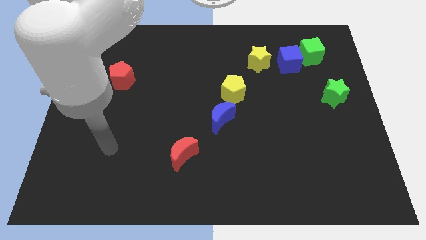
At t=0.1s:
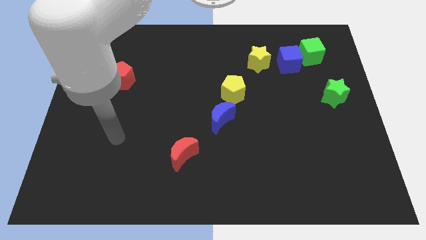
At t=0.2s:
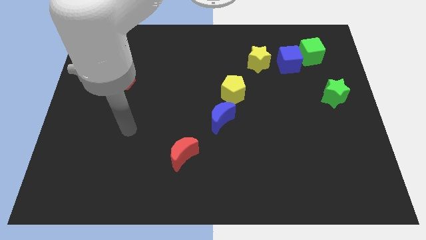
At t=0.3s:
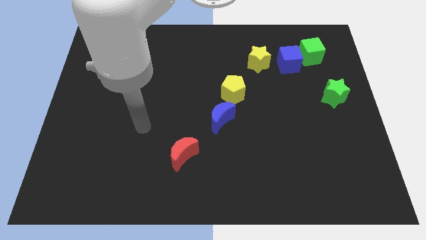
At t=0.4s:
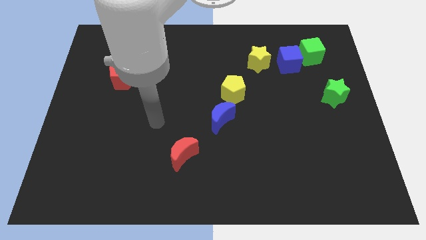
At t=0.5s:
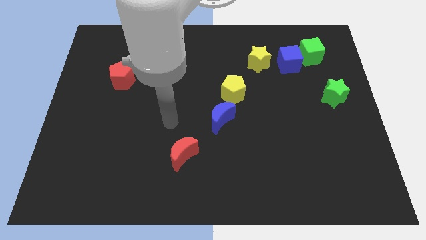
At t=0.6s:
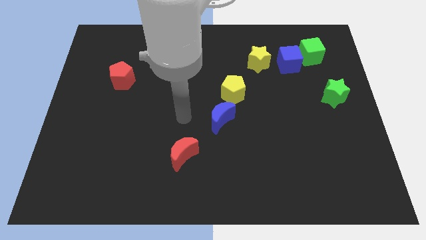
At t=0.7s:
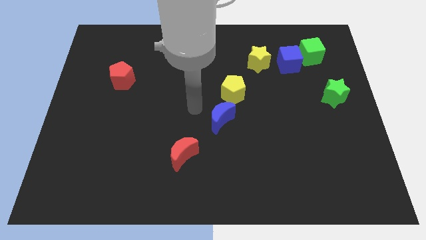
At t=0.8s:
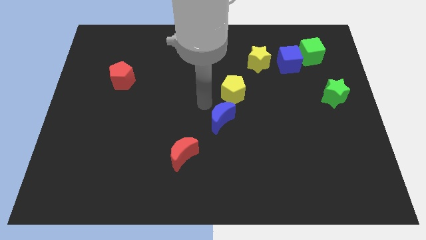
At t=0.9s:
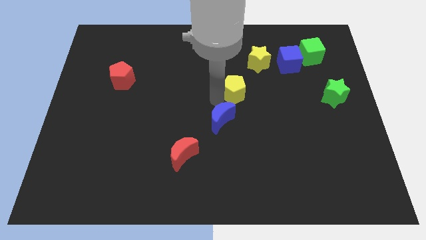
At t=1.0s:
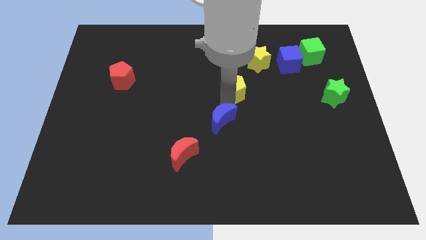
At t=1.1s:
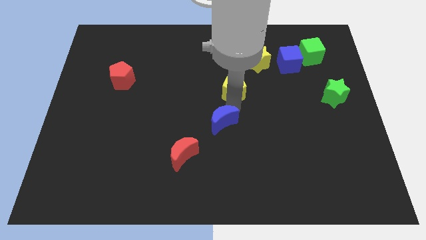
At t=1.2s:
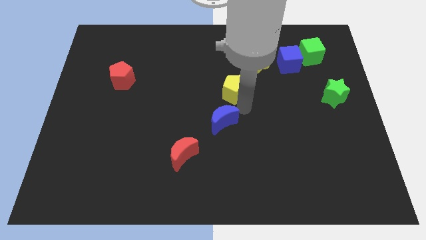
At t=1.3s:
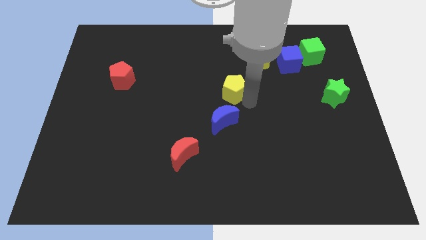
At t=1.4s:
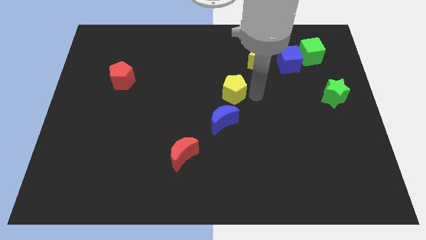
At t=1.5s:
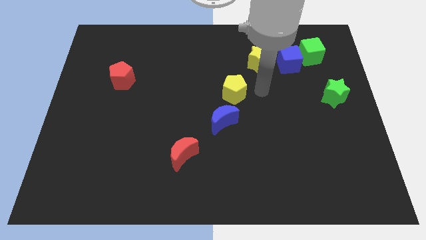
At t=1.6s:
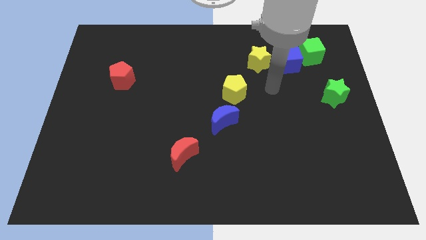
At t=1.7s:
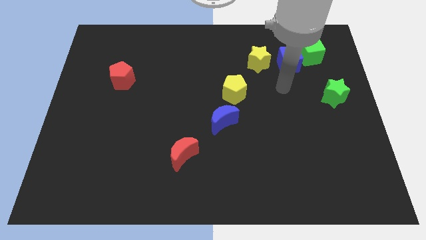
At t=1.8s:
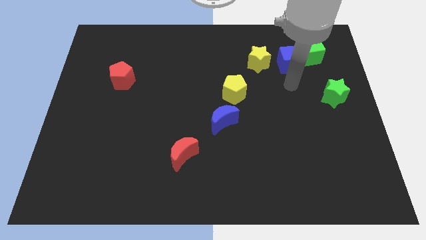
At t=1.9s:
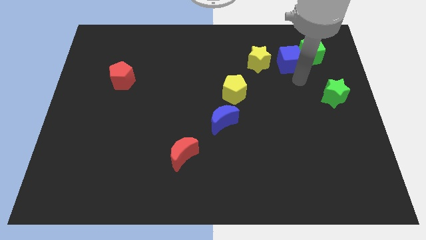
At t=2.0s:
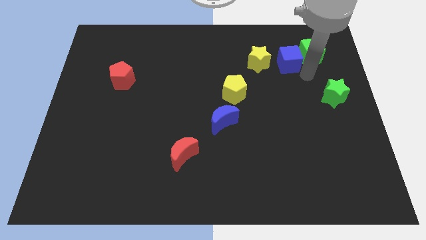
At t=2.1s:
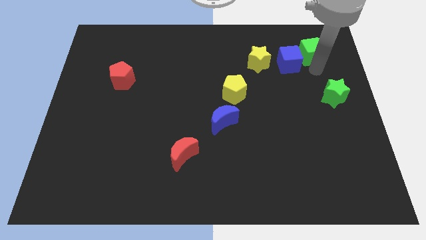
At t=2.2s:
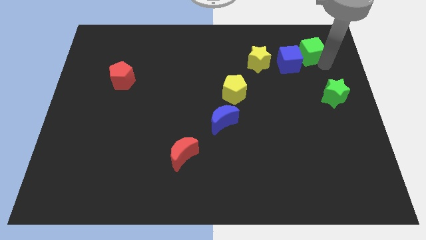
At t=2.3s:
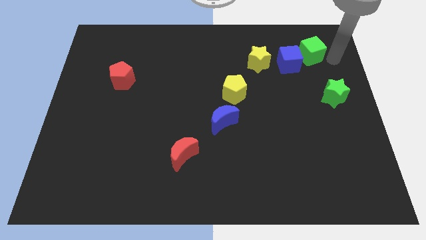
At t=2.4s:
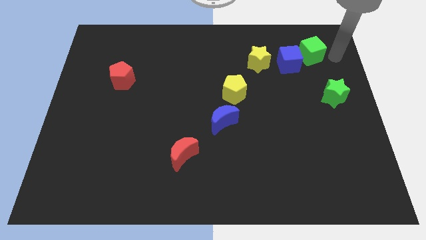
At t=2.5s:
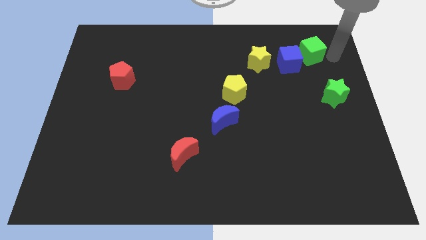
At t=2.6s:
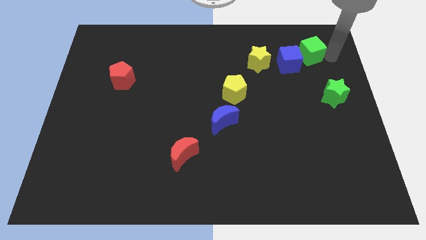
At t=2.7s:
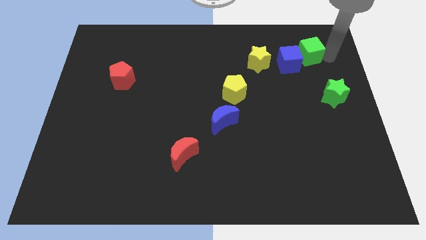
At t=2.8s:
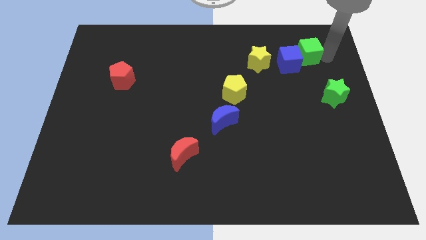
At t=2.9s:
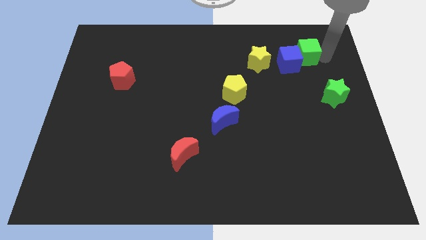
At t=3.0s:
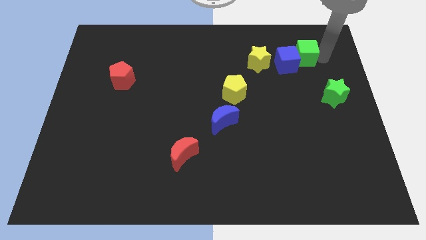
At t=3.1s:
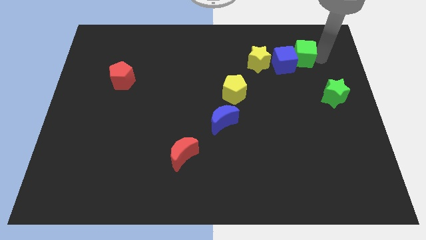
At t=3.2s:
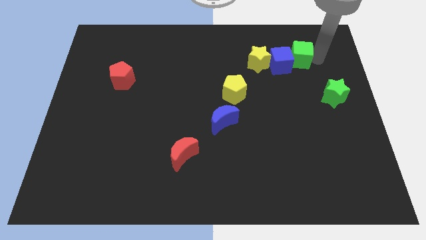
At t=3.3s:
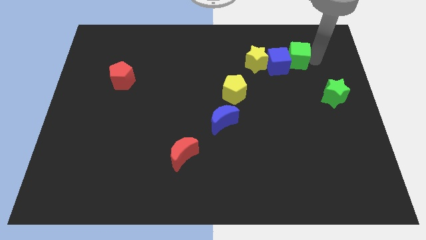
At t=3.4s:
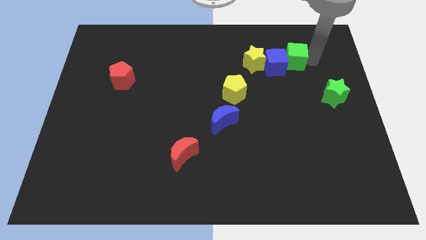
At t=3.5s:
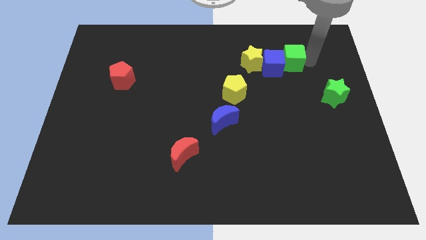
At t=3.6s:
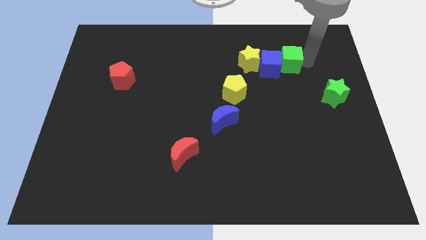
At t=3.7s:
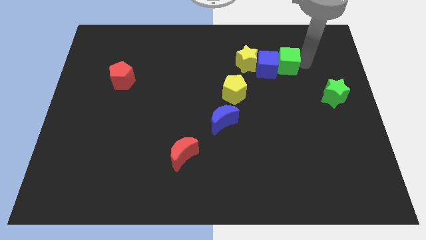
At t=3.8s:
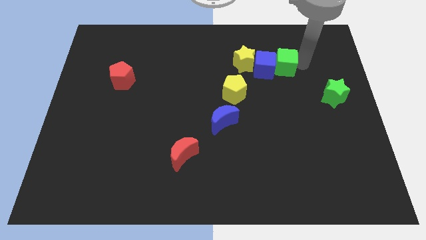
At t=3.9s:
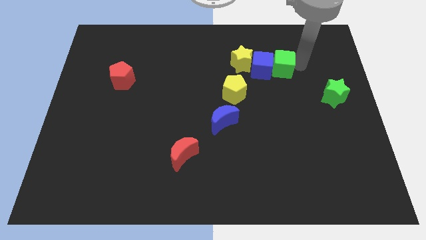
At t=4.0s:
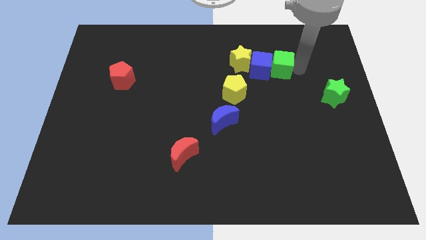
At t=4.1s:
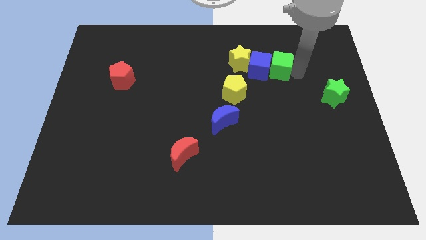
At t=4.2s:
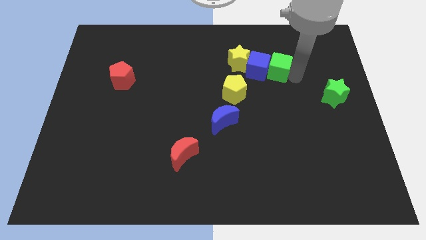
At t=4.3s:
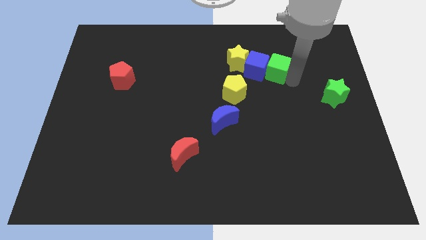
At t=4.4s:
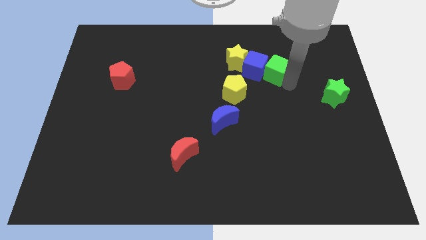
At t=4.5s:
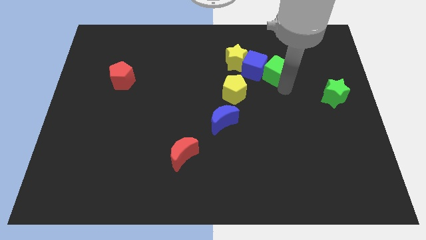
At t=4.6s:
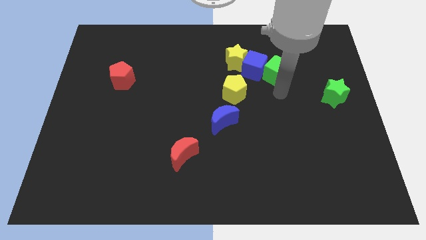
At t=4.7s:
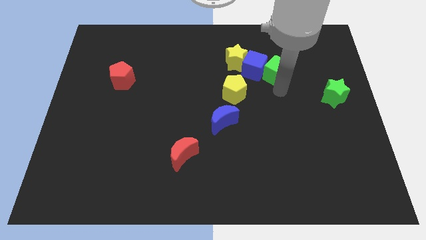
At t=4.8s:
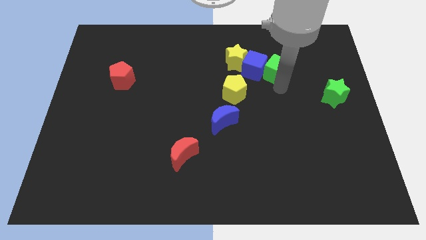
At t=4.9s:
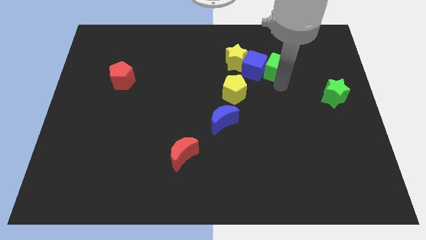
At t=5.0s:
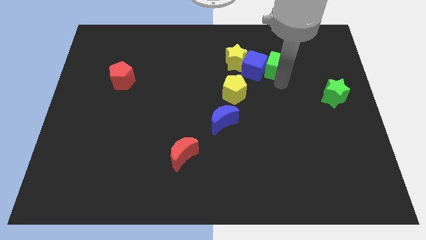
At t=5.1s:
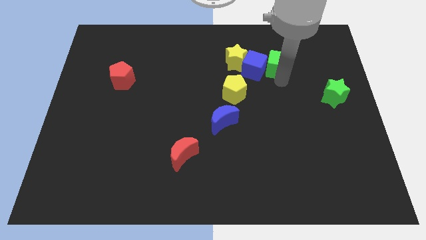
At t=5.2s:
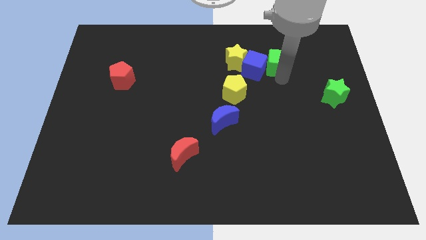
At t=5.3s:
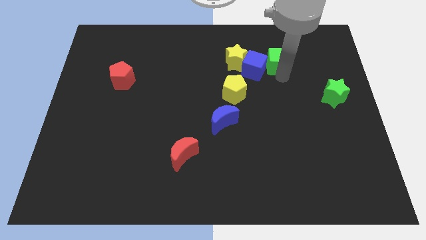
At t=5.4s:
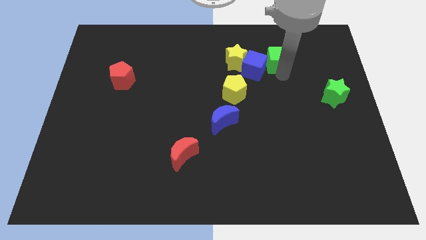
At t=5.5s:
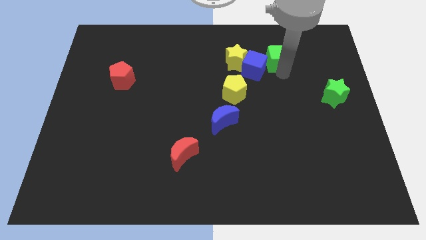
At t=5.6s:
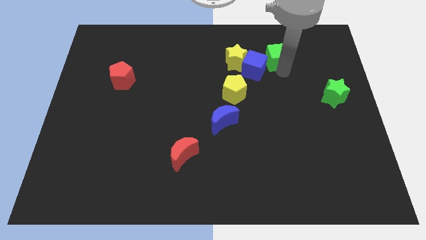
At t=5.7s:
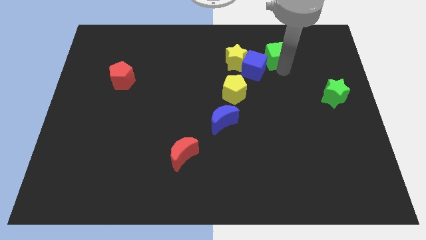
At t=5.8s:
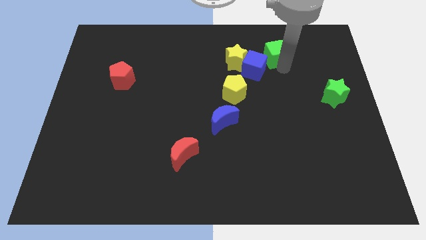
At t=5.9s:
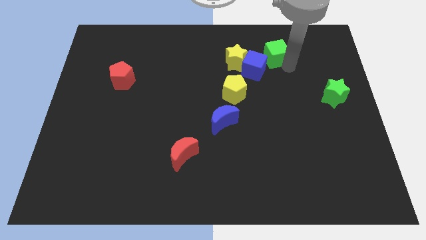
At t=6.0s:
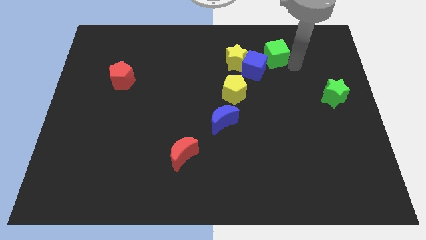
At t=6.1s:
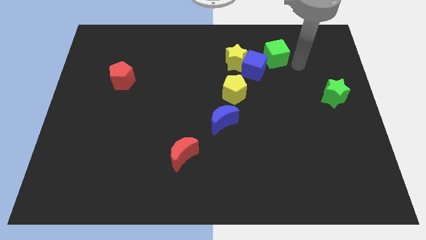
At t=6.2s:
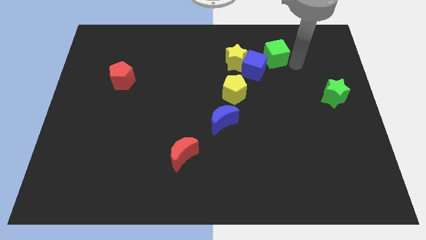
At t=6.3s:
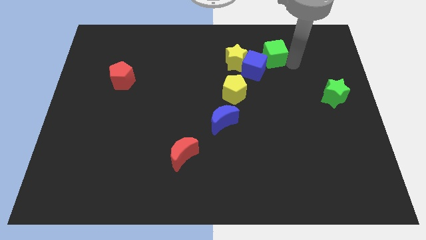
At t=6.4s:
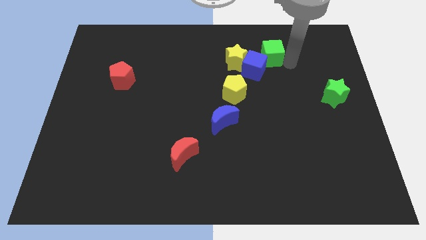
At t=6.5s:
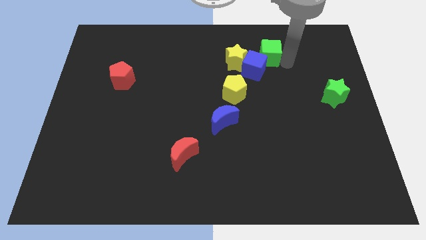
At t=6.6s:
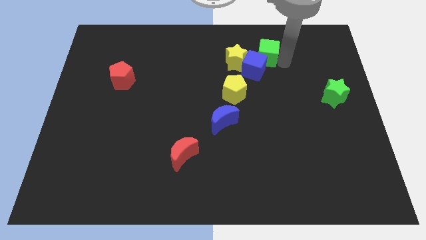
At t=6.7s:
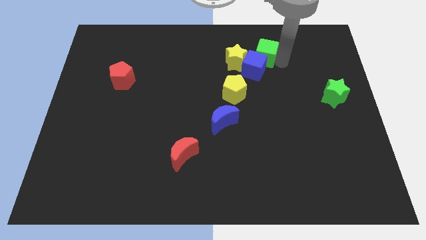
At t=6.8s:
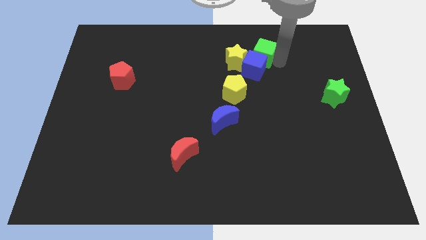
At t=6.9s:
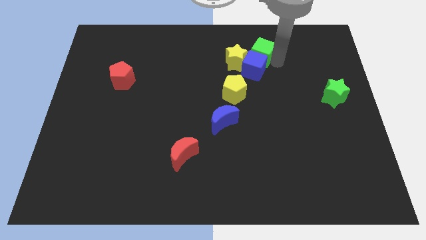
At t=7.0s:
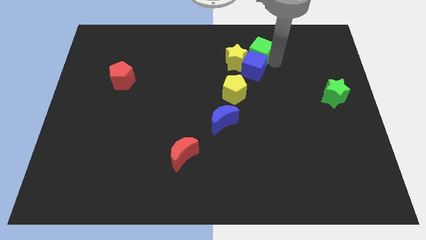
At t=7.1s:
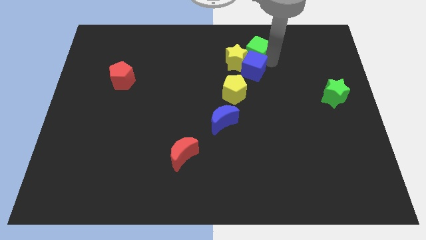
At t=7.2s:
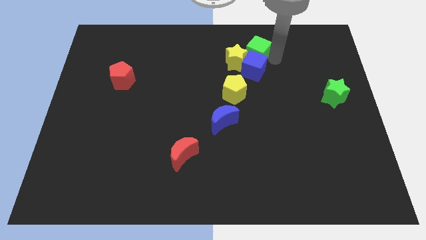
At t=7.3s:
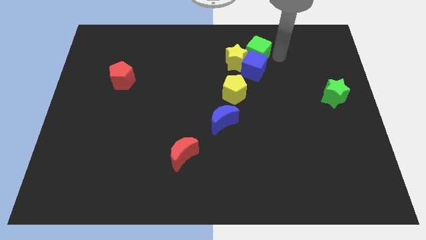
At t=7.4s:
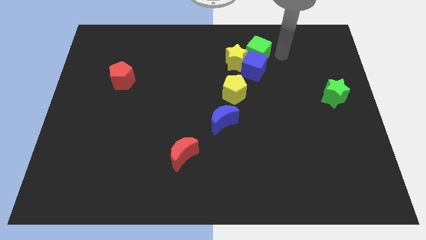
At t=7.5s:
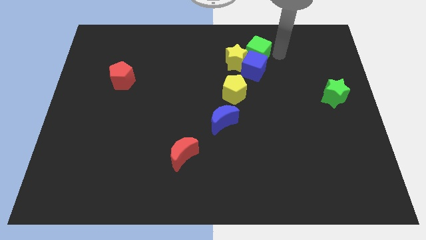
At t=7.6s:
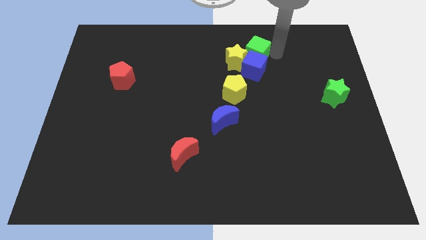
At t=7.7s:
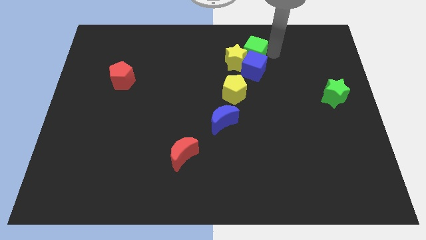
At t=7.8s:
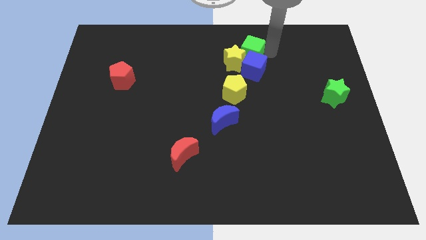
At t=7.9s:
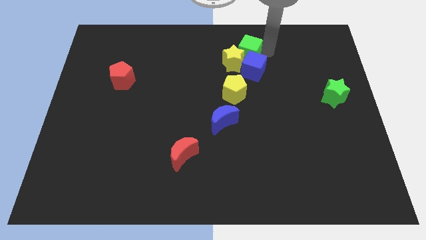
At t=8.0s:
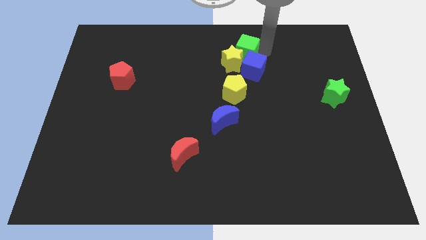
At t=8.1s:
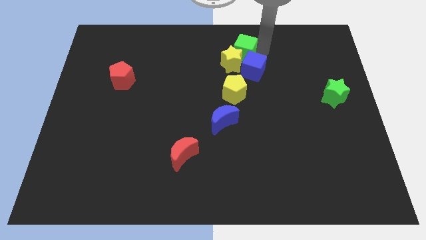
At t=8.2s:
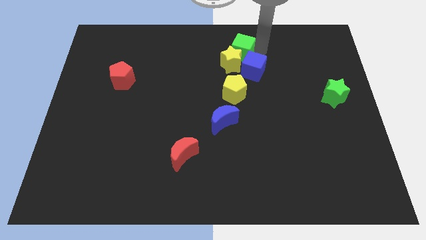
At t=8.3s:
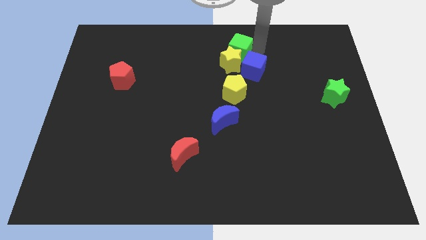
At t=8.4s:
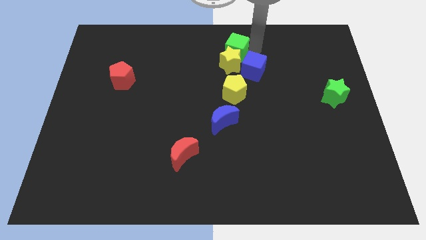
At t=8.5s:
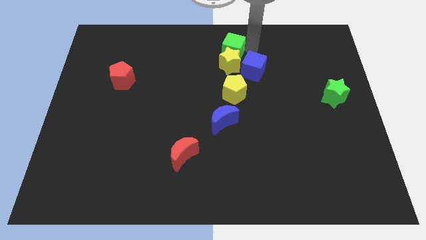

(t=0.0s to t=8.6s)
push the green cube to the left
